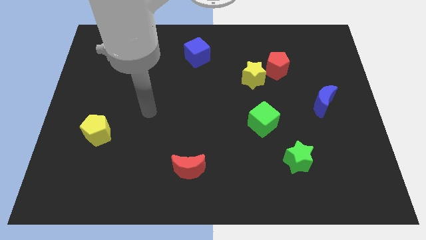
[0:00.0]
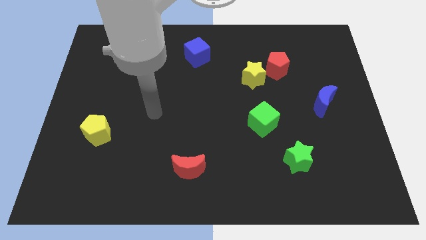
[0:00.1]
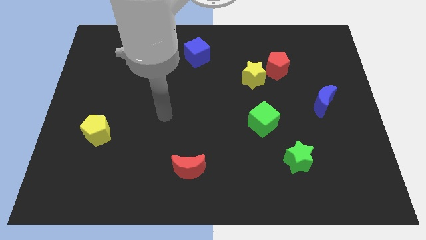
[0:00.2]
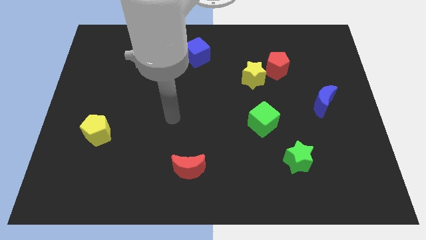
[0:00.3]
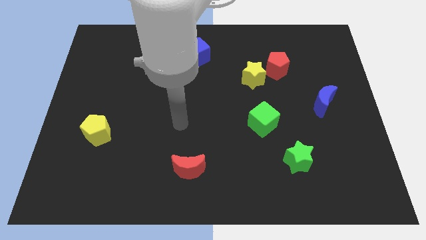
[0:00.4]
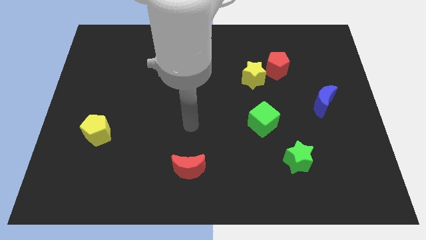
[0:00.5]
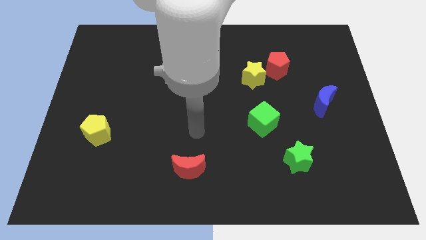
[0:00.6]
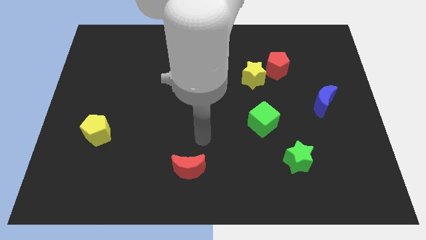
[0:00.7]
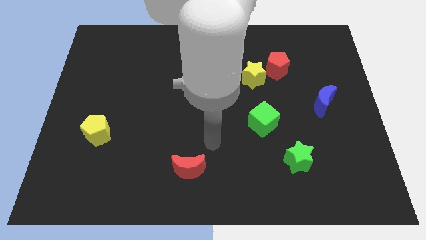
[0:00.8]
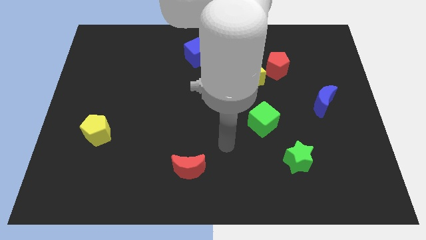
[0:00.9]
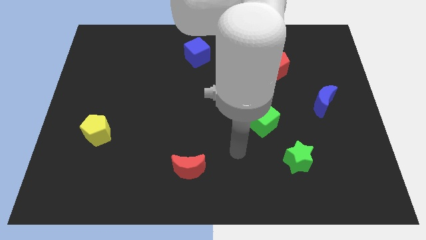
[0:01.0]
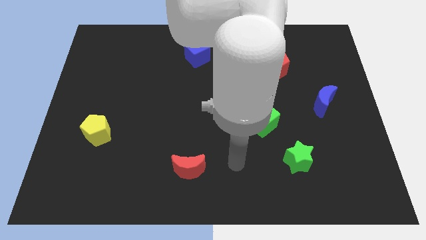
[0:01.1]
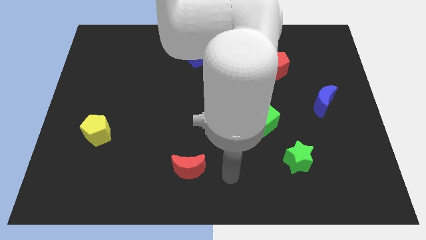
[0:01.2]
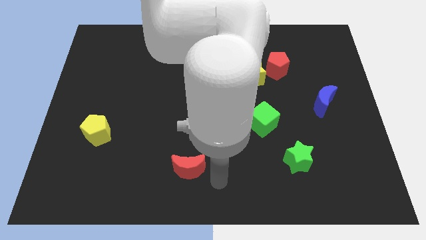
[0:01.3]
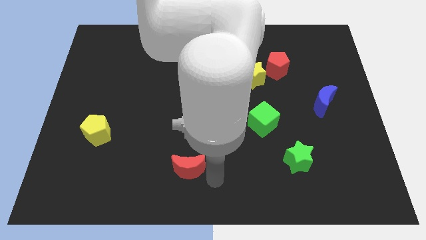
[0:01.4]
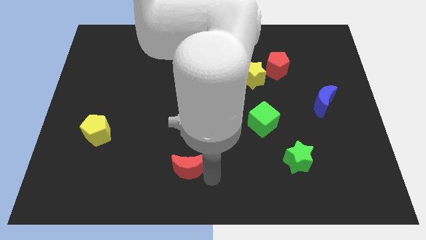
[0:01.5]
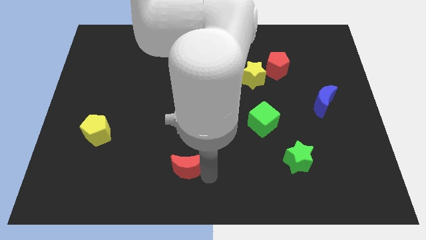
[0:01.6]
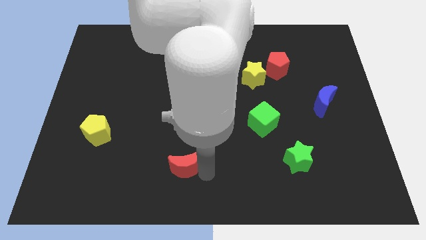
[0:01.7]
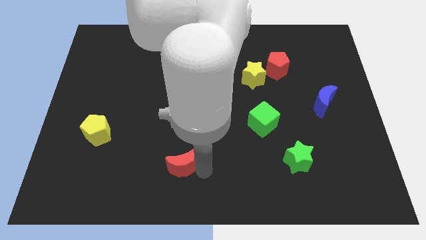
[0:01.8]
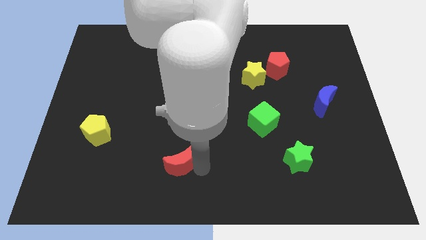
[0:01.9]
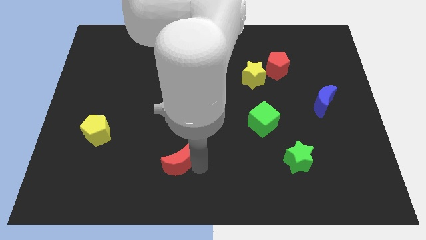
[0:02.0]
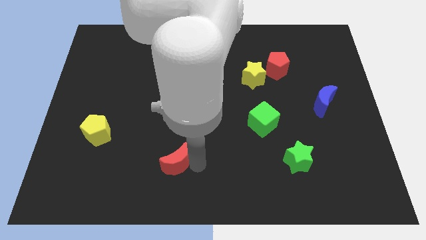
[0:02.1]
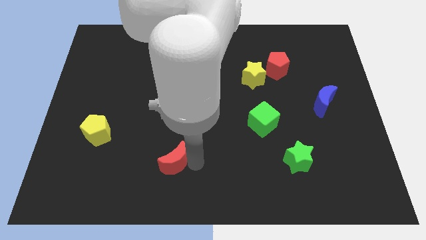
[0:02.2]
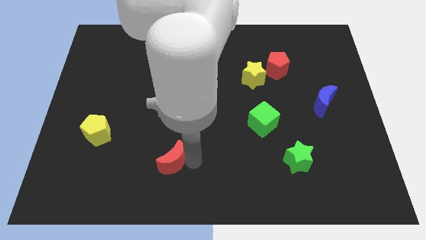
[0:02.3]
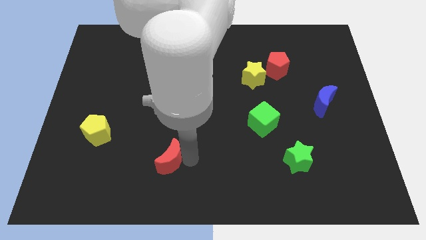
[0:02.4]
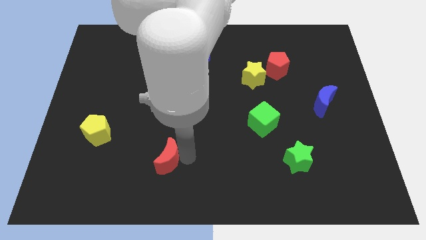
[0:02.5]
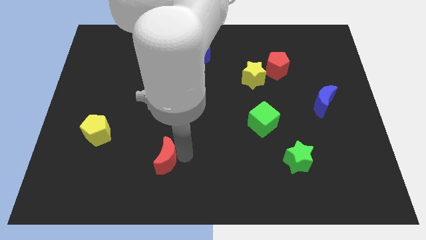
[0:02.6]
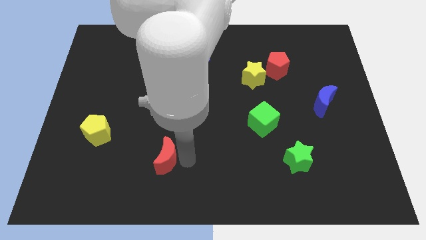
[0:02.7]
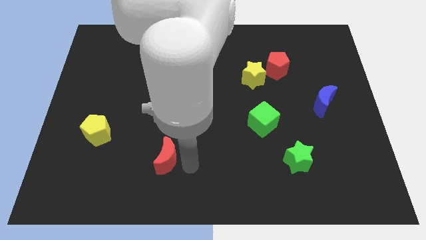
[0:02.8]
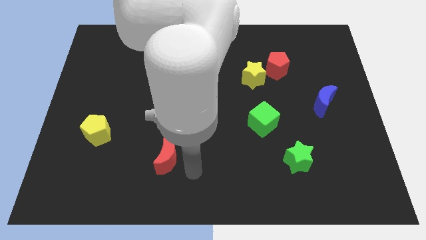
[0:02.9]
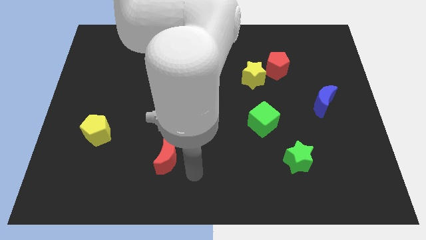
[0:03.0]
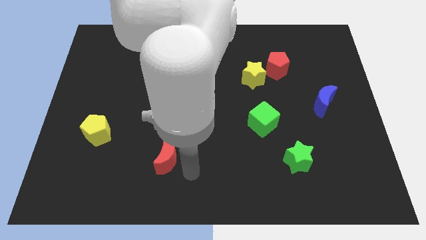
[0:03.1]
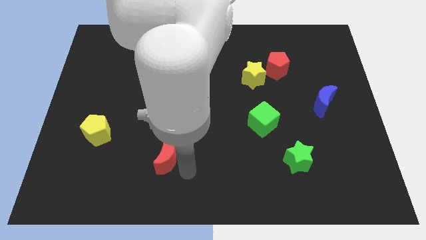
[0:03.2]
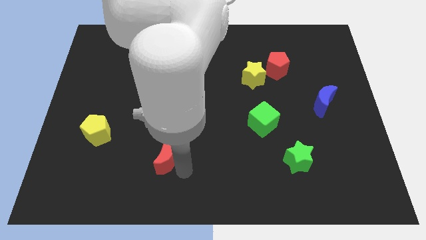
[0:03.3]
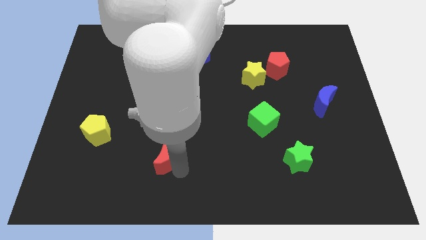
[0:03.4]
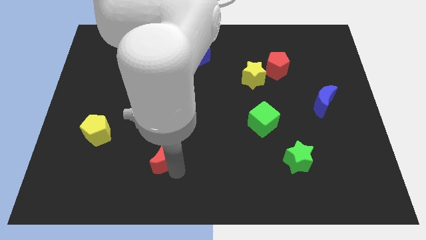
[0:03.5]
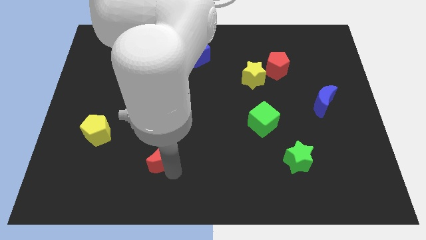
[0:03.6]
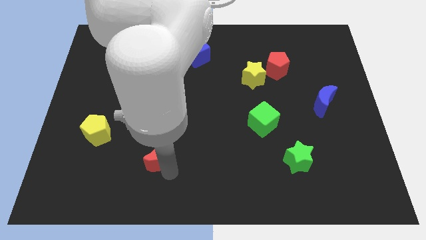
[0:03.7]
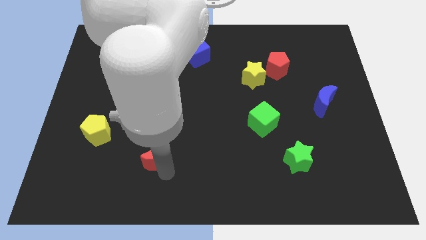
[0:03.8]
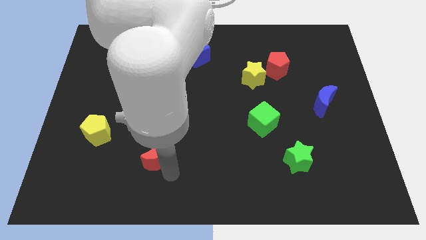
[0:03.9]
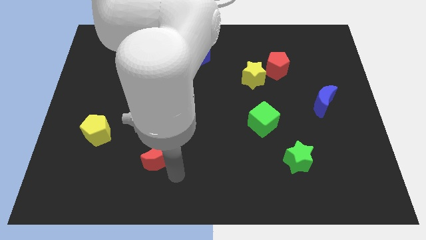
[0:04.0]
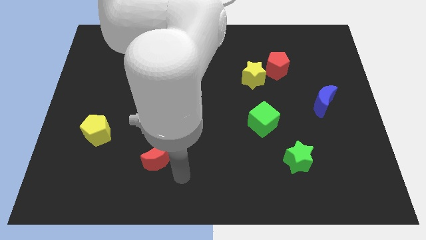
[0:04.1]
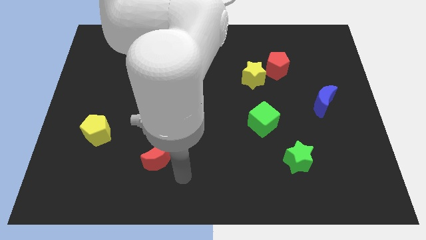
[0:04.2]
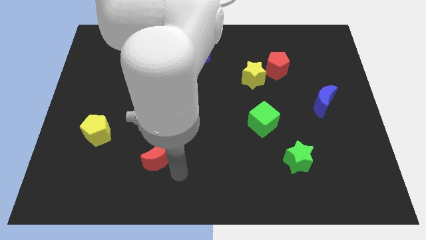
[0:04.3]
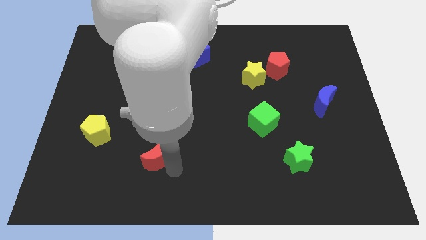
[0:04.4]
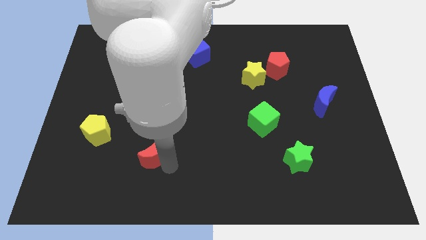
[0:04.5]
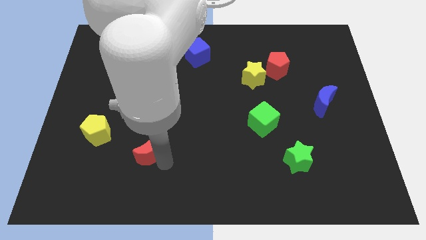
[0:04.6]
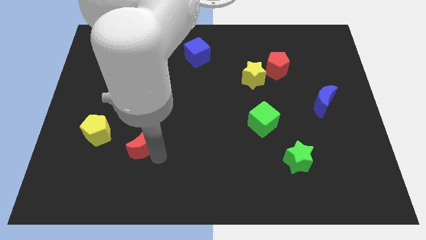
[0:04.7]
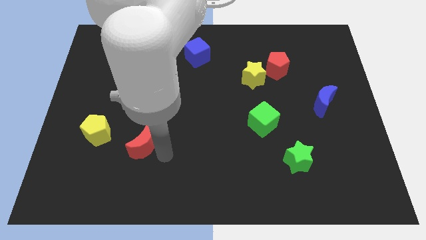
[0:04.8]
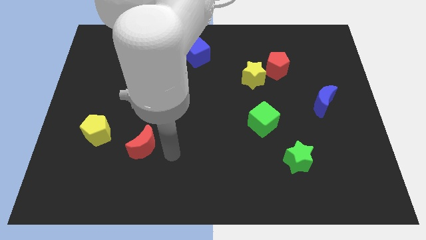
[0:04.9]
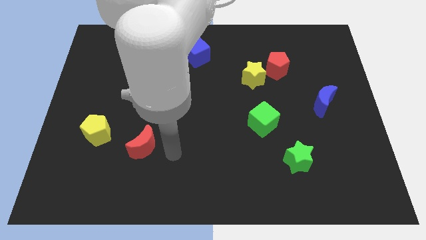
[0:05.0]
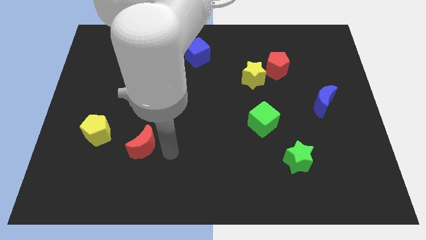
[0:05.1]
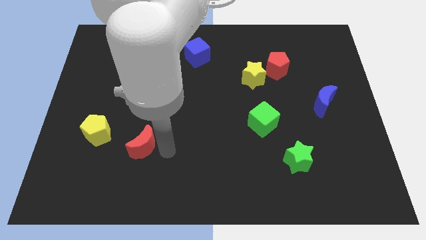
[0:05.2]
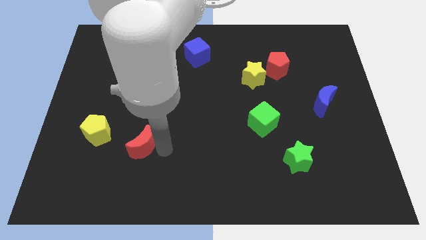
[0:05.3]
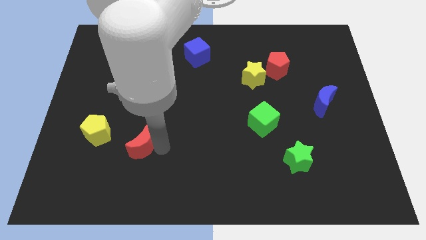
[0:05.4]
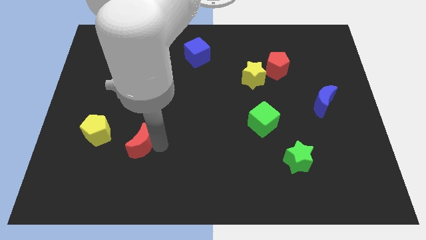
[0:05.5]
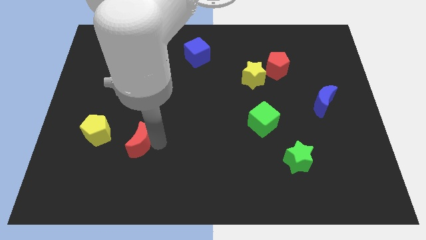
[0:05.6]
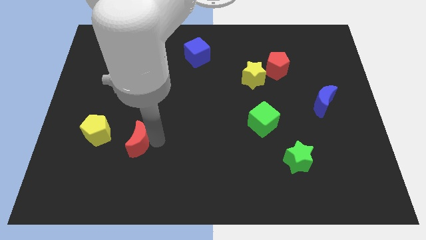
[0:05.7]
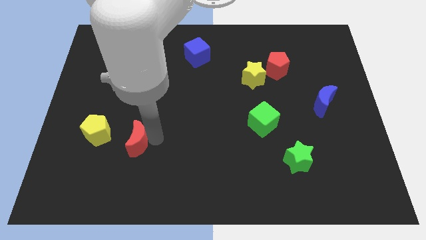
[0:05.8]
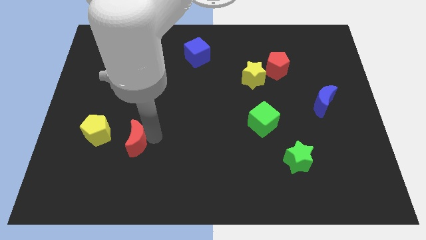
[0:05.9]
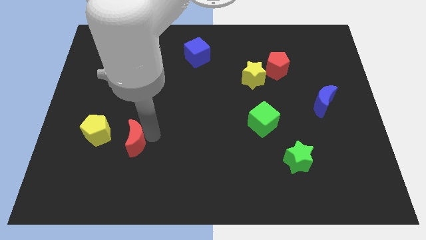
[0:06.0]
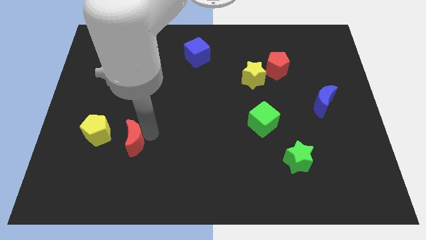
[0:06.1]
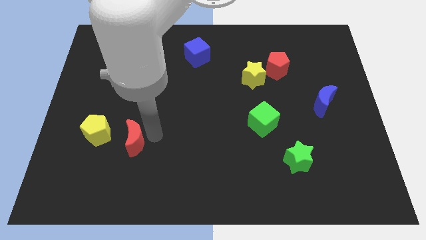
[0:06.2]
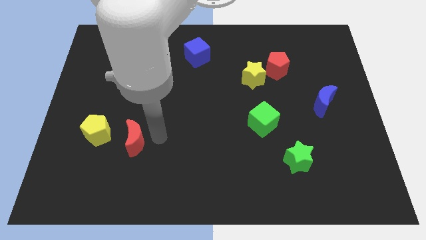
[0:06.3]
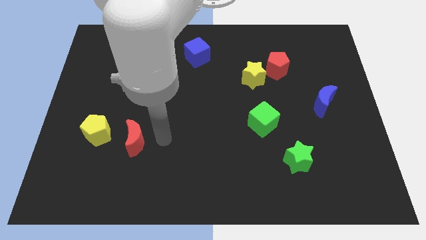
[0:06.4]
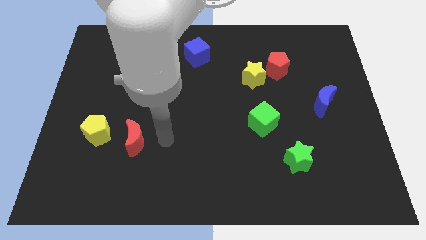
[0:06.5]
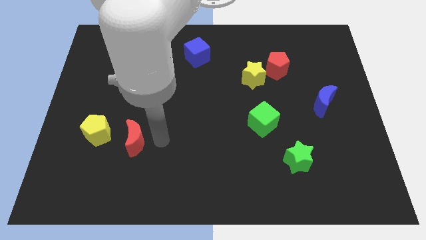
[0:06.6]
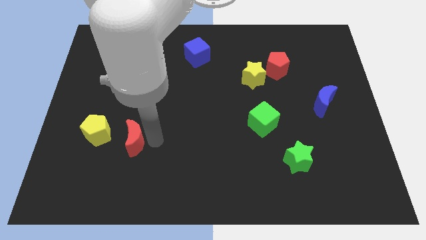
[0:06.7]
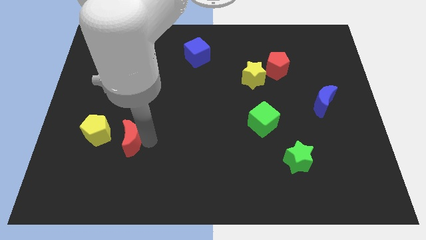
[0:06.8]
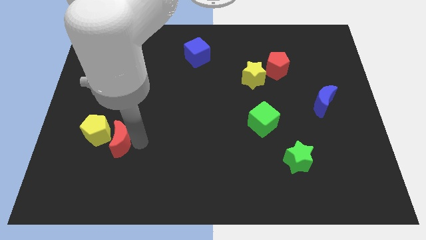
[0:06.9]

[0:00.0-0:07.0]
push the red moon towards the yellow pentagon

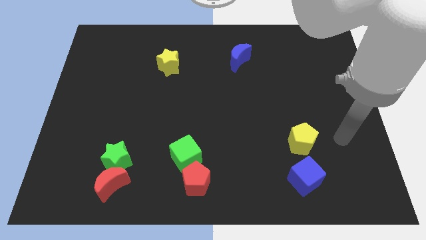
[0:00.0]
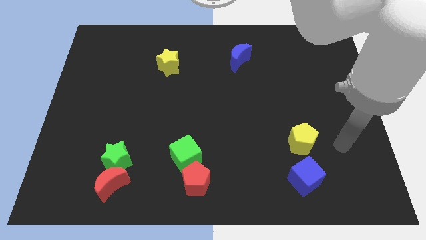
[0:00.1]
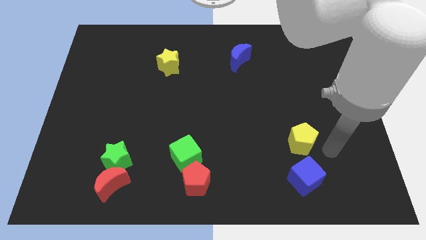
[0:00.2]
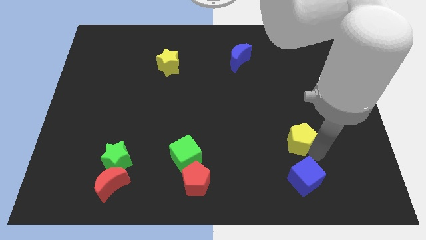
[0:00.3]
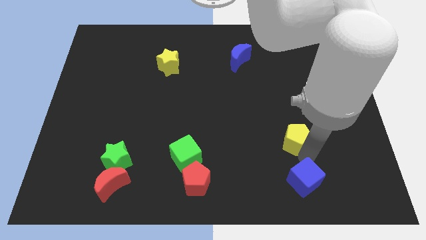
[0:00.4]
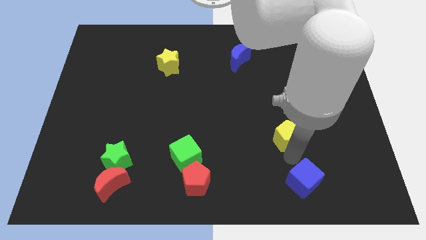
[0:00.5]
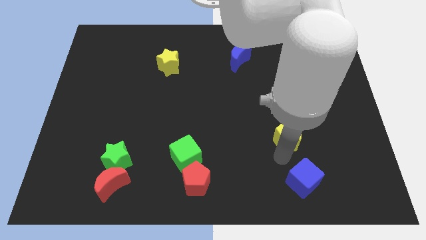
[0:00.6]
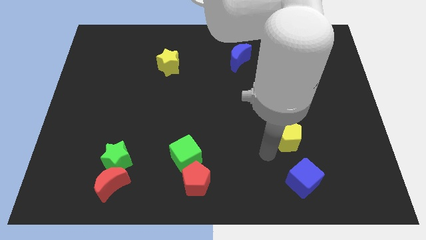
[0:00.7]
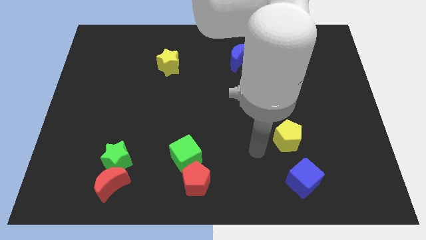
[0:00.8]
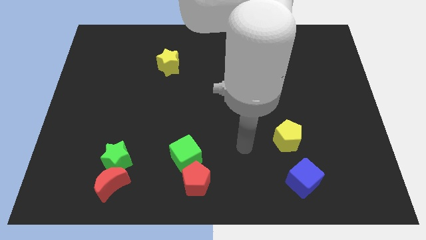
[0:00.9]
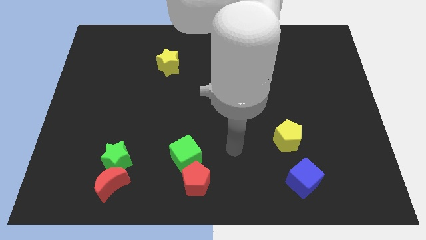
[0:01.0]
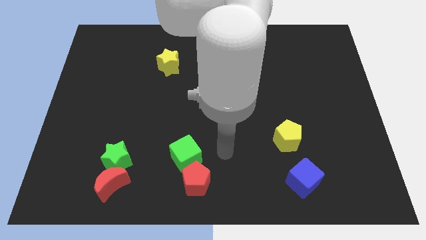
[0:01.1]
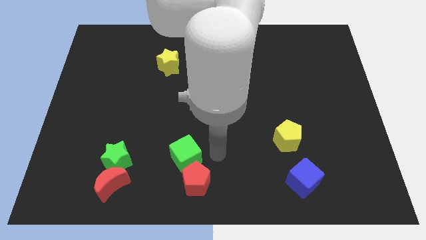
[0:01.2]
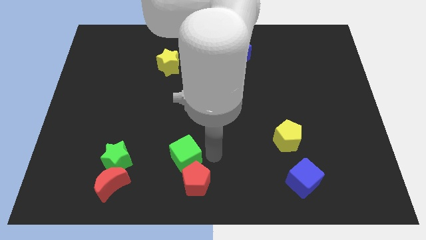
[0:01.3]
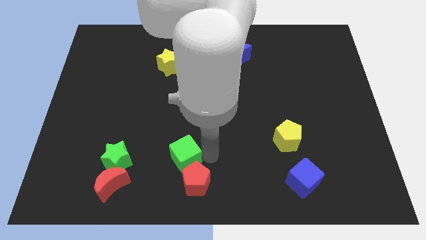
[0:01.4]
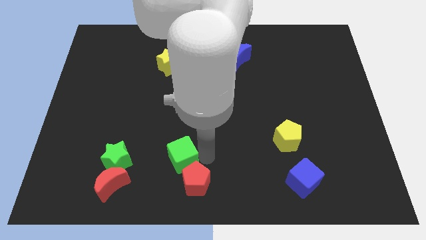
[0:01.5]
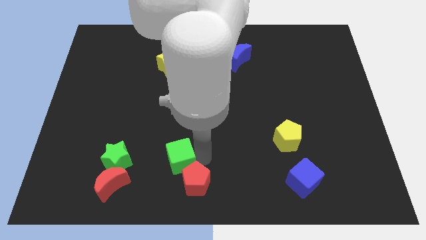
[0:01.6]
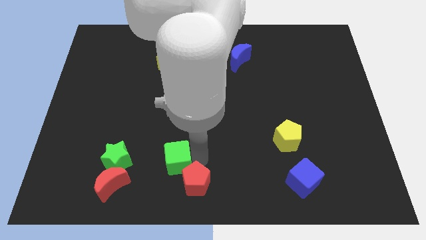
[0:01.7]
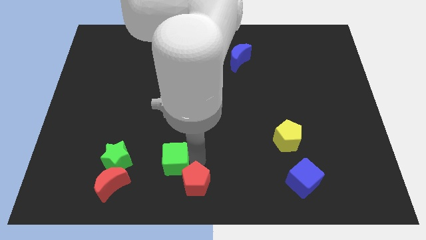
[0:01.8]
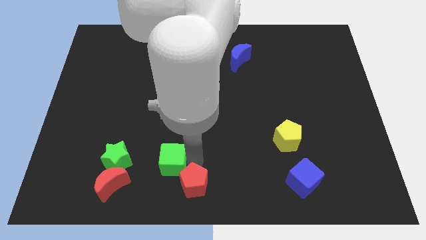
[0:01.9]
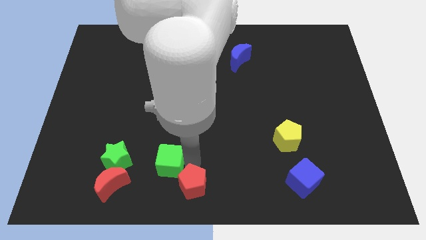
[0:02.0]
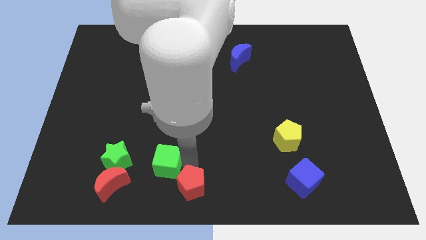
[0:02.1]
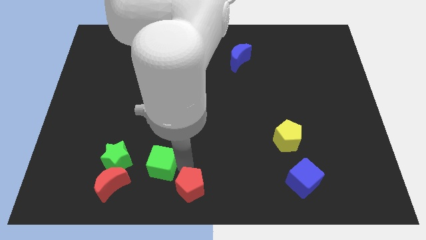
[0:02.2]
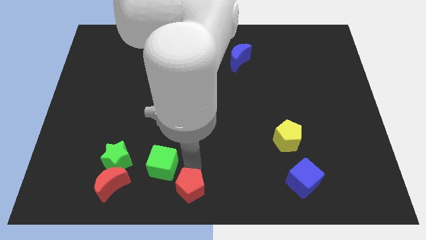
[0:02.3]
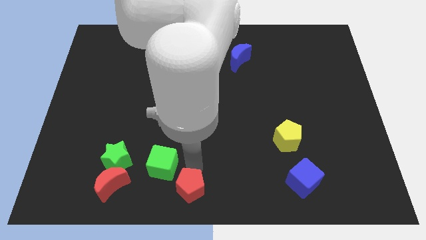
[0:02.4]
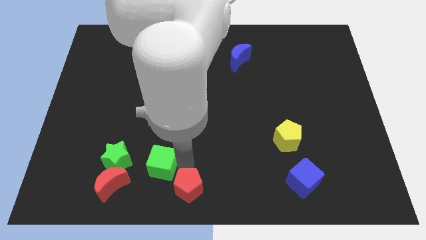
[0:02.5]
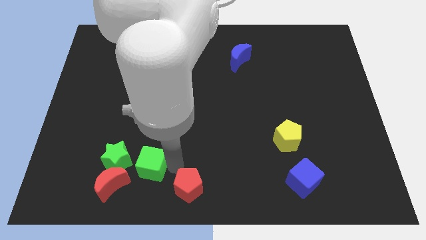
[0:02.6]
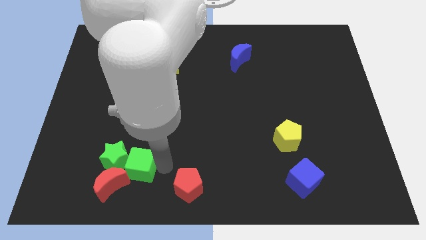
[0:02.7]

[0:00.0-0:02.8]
push the green cube towards the green star
